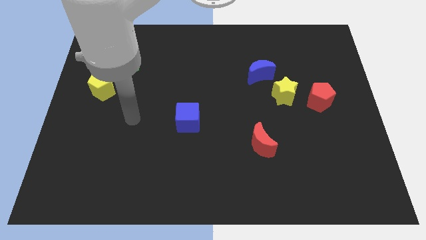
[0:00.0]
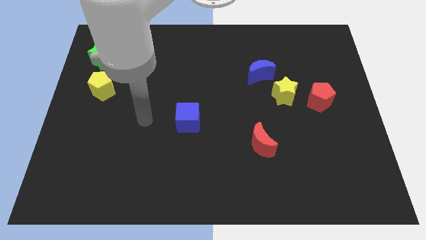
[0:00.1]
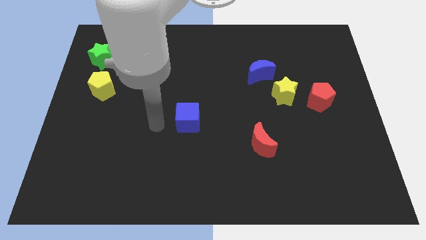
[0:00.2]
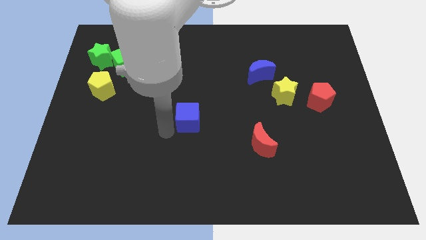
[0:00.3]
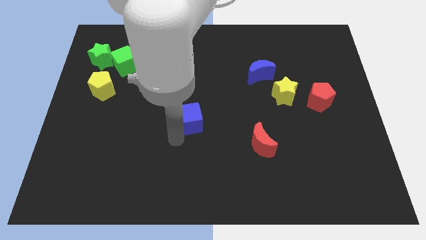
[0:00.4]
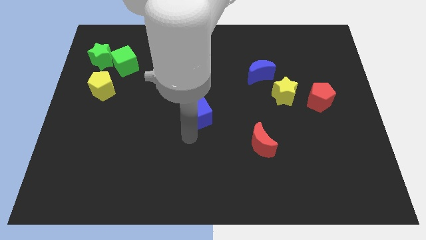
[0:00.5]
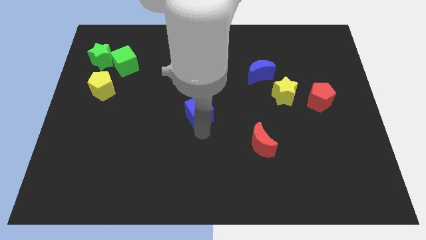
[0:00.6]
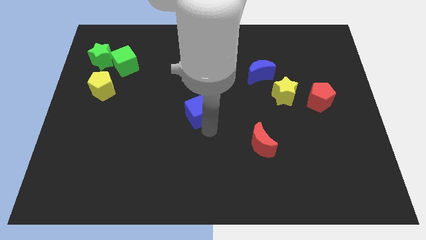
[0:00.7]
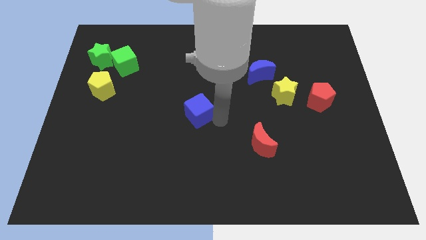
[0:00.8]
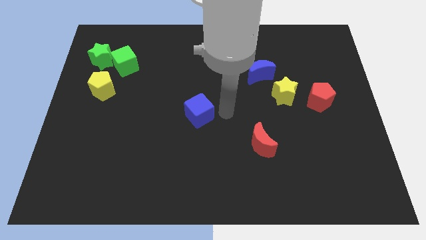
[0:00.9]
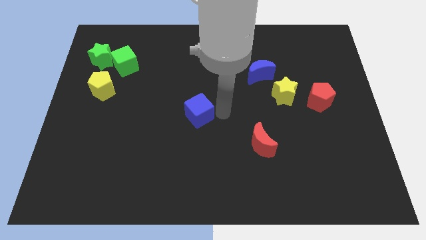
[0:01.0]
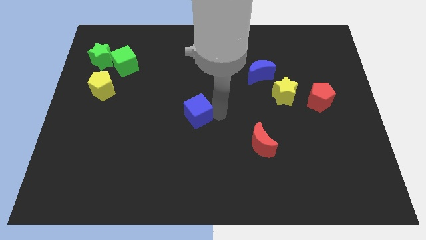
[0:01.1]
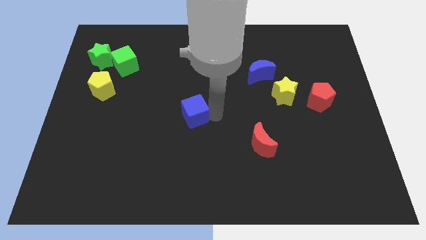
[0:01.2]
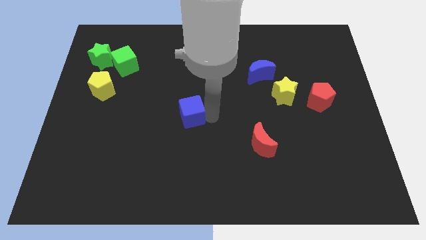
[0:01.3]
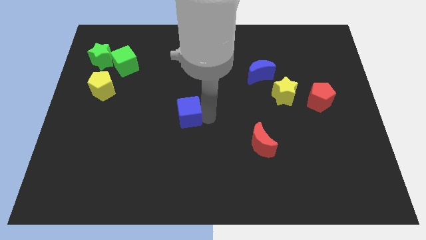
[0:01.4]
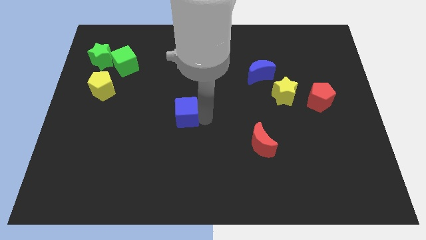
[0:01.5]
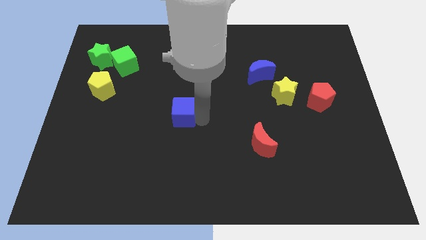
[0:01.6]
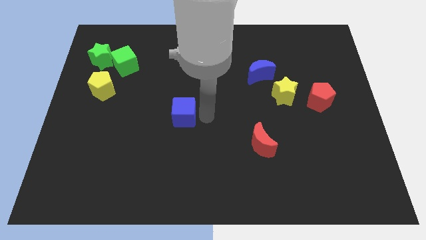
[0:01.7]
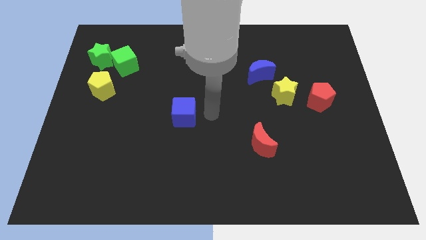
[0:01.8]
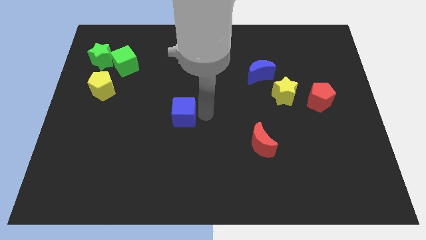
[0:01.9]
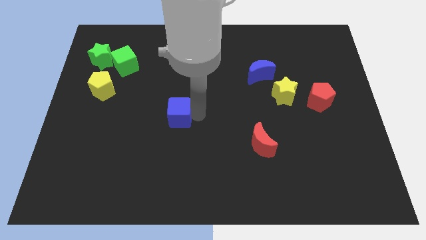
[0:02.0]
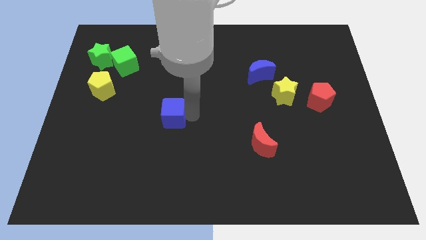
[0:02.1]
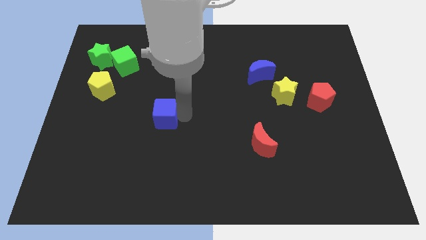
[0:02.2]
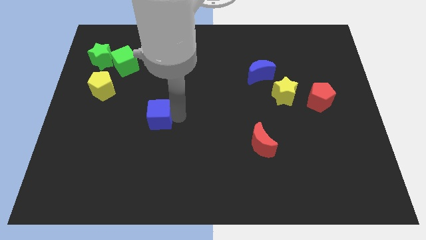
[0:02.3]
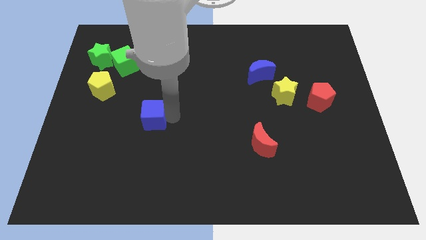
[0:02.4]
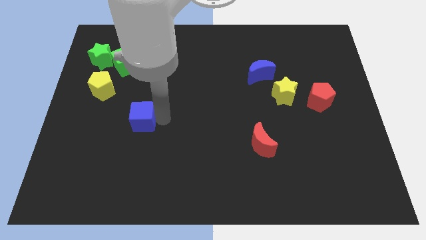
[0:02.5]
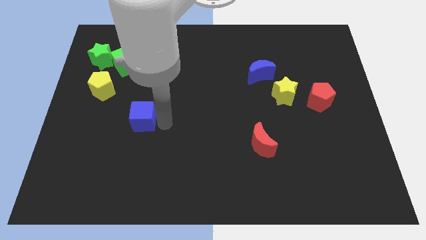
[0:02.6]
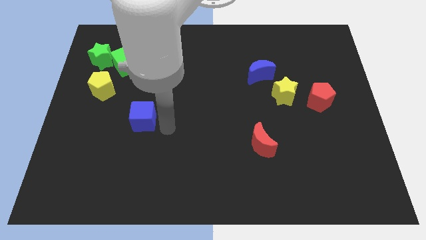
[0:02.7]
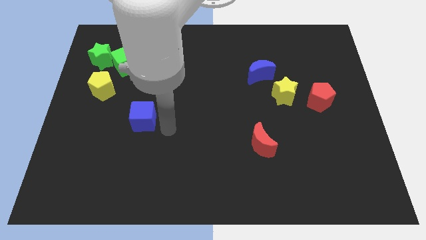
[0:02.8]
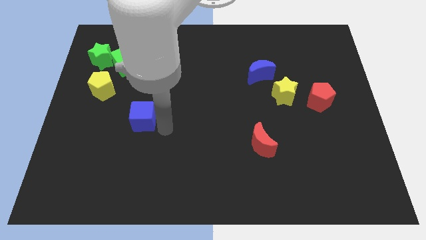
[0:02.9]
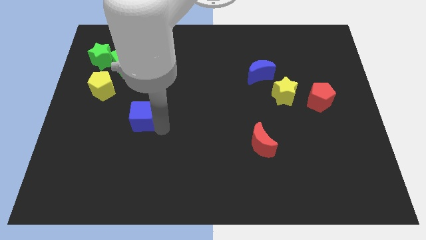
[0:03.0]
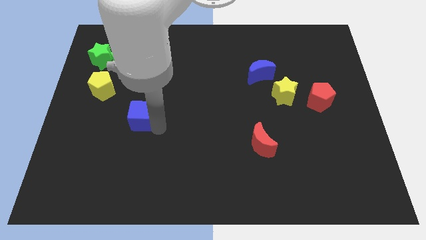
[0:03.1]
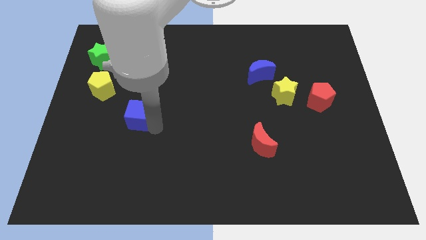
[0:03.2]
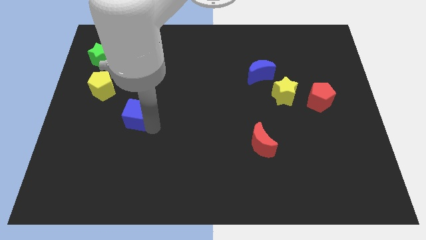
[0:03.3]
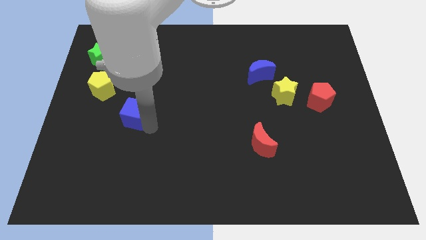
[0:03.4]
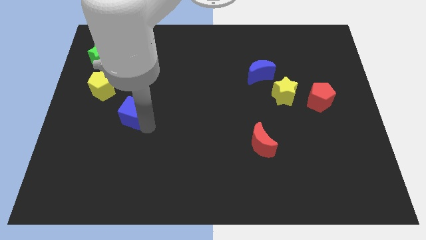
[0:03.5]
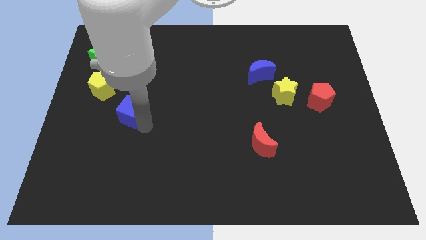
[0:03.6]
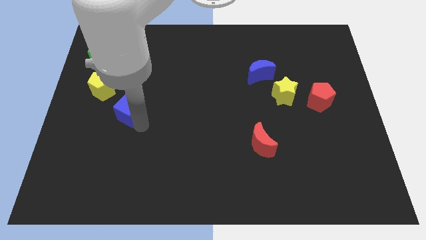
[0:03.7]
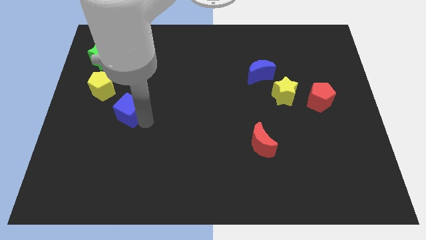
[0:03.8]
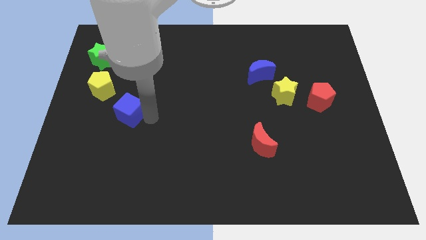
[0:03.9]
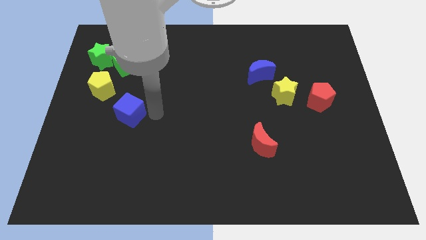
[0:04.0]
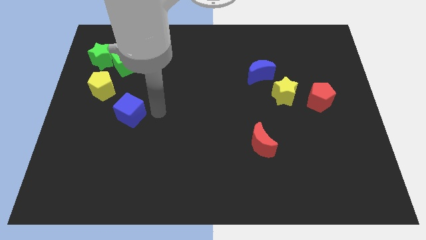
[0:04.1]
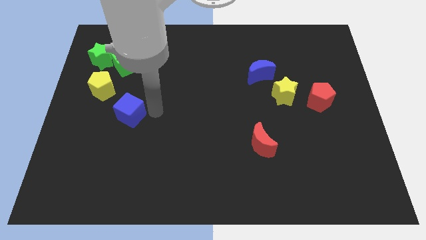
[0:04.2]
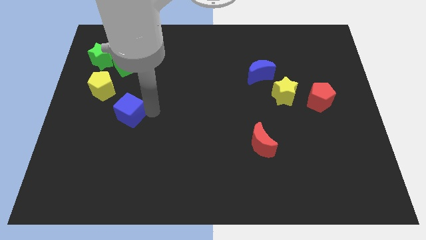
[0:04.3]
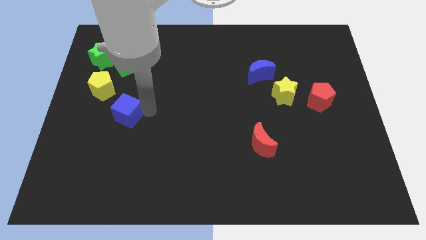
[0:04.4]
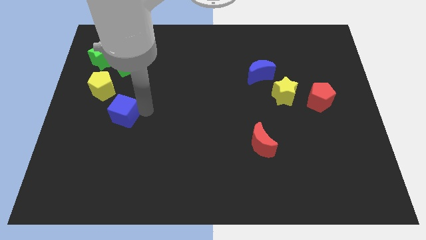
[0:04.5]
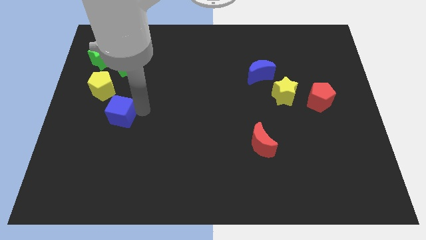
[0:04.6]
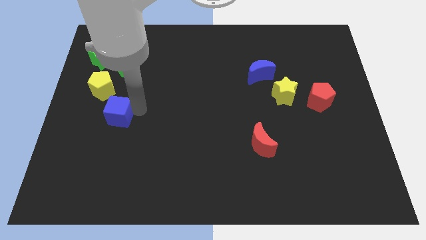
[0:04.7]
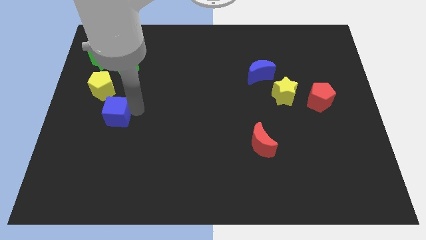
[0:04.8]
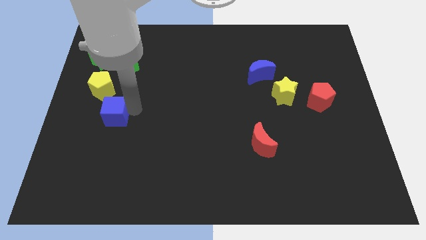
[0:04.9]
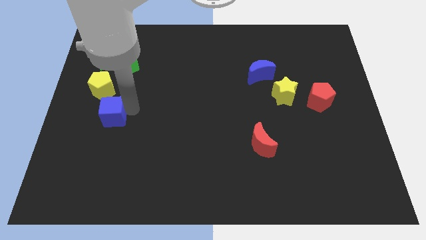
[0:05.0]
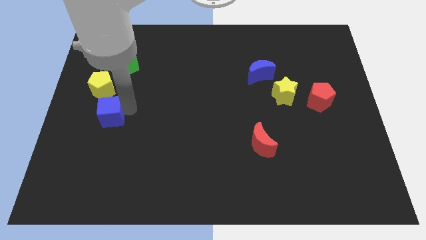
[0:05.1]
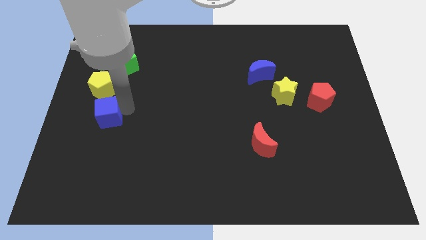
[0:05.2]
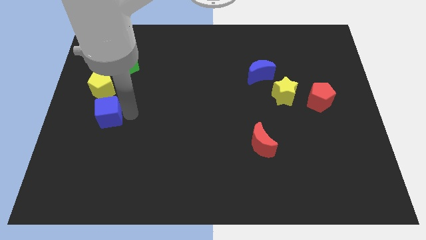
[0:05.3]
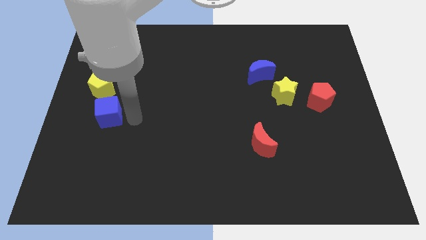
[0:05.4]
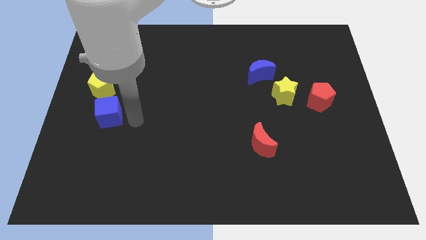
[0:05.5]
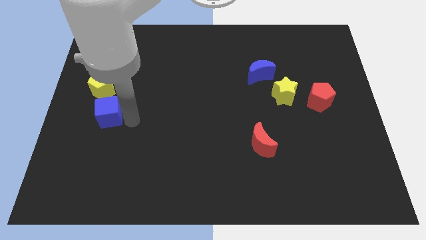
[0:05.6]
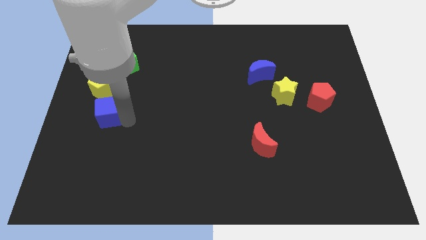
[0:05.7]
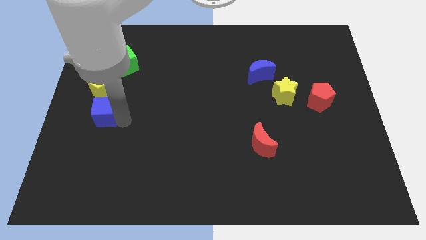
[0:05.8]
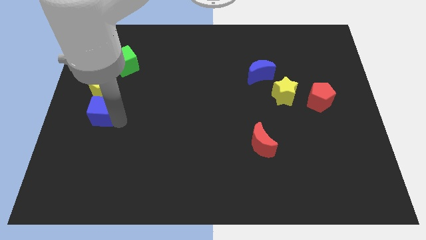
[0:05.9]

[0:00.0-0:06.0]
put the blue cube to the left side of the board

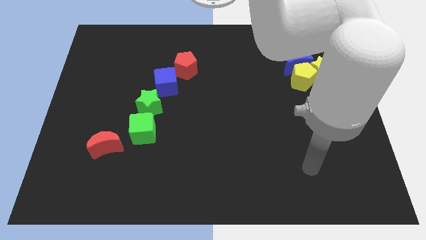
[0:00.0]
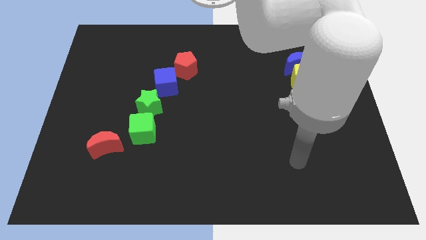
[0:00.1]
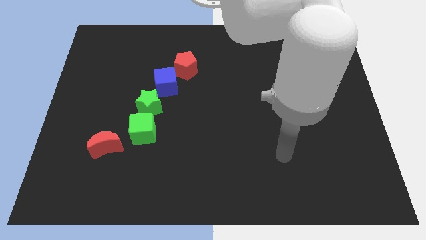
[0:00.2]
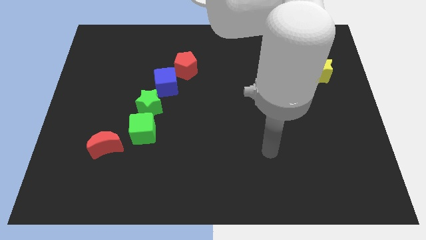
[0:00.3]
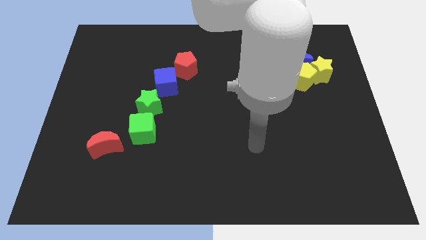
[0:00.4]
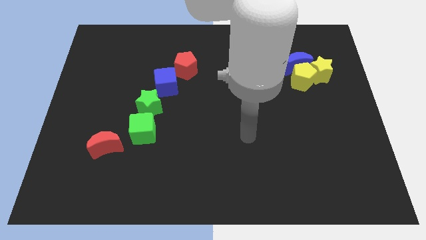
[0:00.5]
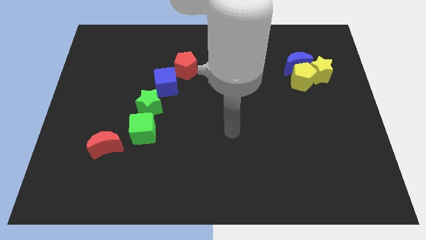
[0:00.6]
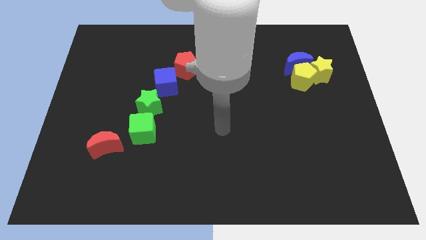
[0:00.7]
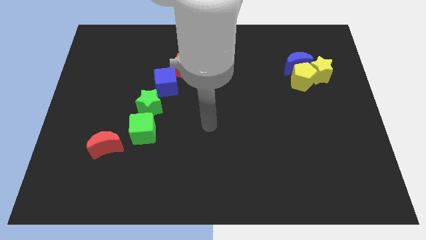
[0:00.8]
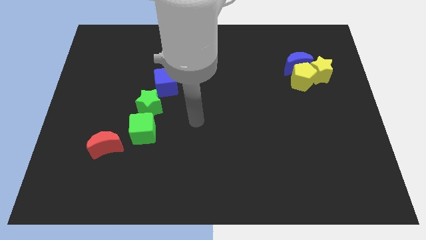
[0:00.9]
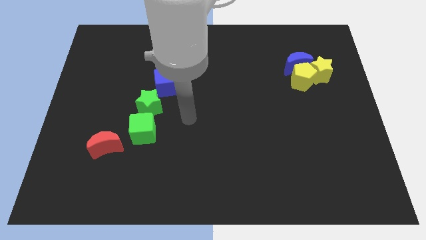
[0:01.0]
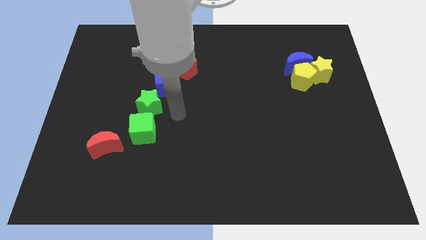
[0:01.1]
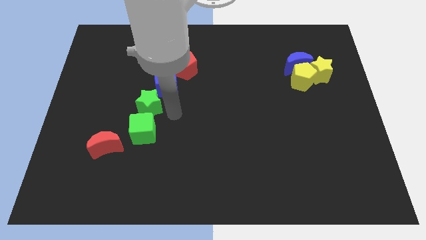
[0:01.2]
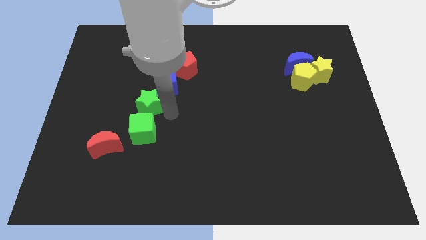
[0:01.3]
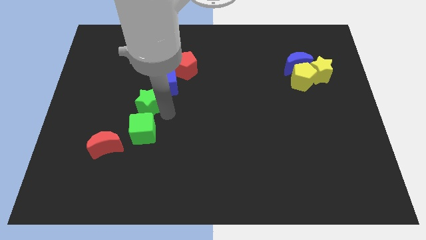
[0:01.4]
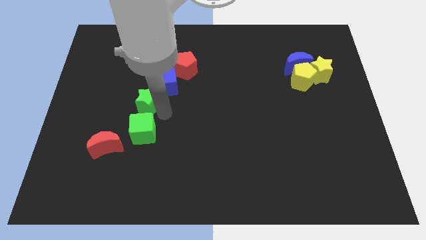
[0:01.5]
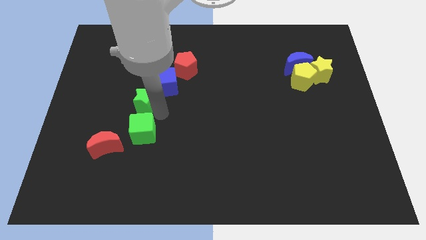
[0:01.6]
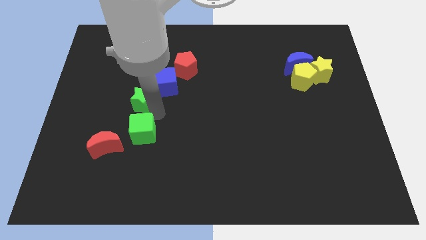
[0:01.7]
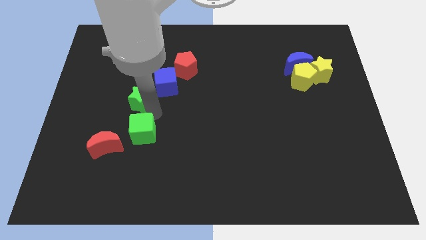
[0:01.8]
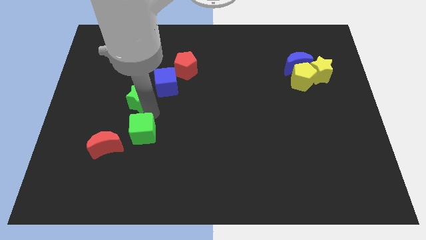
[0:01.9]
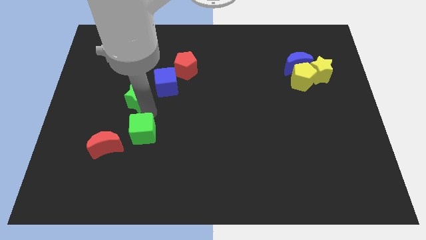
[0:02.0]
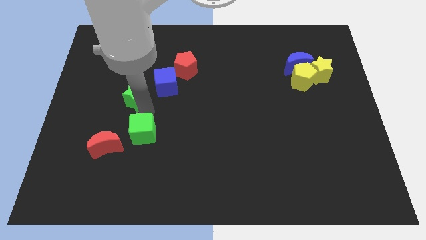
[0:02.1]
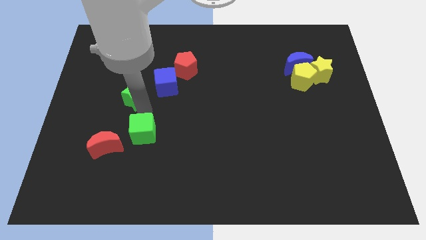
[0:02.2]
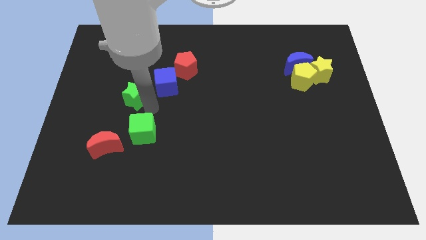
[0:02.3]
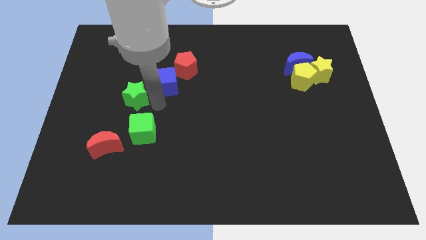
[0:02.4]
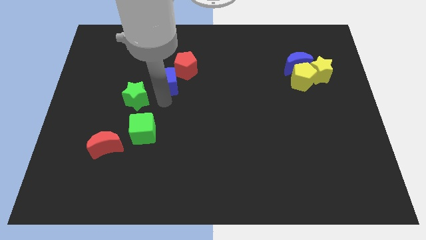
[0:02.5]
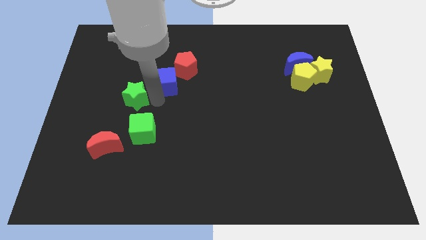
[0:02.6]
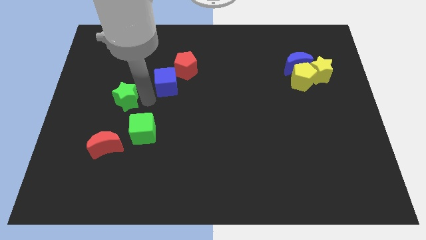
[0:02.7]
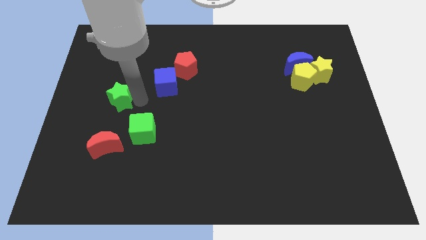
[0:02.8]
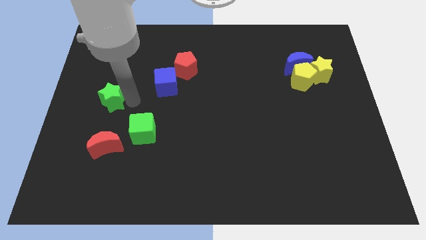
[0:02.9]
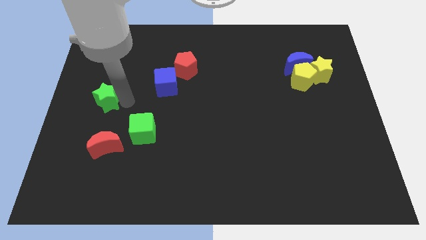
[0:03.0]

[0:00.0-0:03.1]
move the green star to the left side
